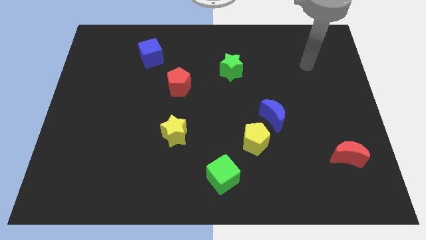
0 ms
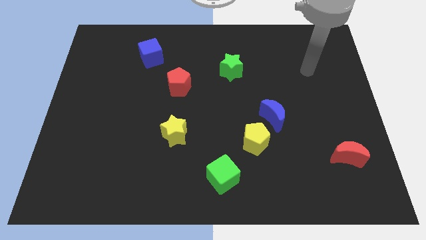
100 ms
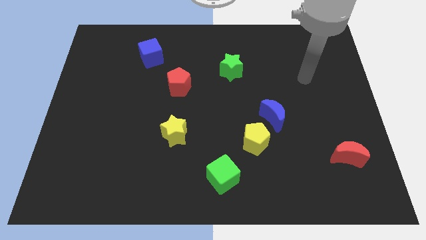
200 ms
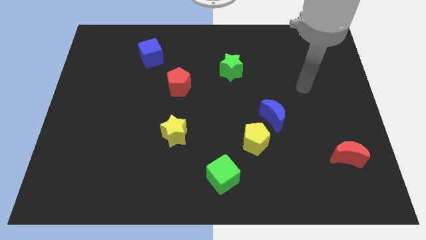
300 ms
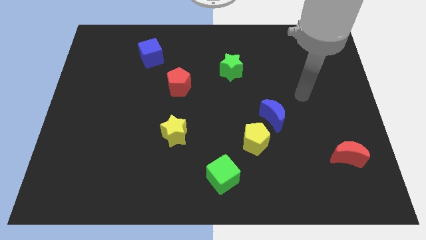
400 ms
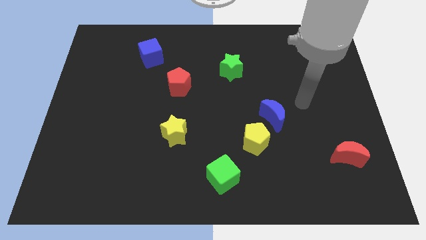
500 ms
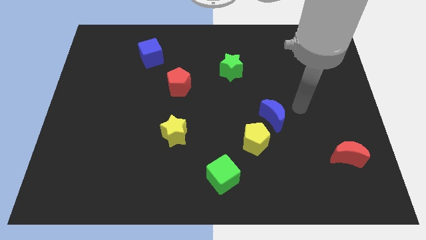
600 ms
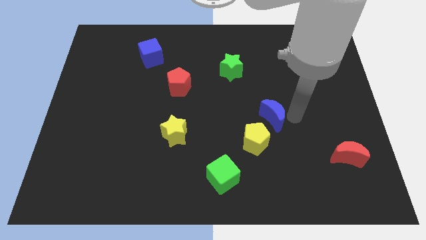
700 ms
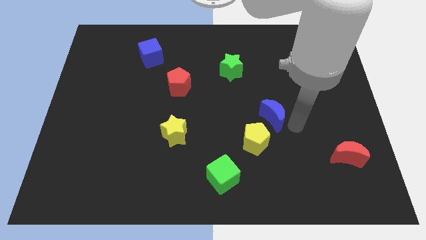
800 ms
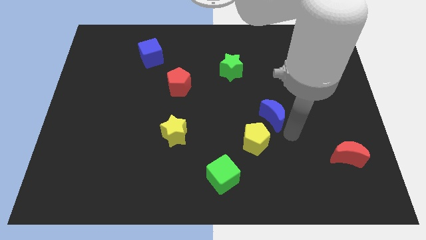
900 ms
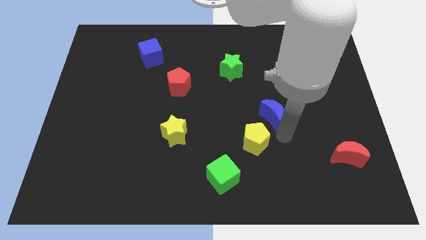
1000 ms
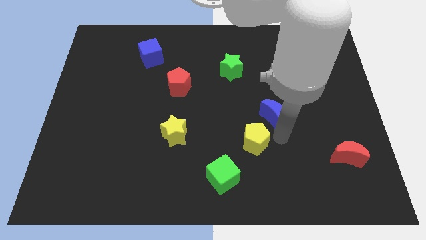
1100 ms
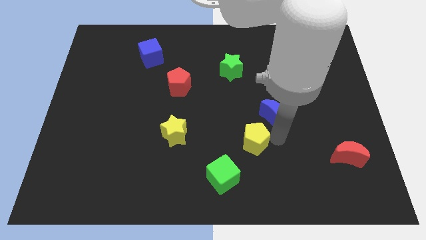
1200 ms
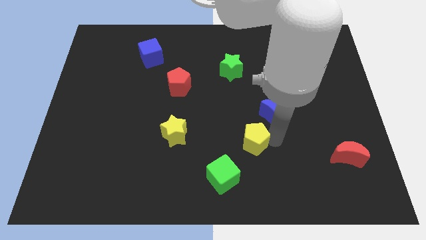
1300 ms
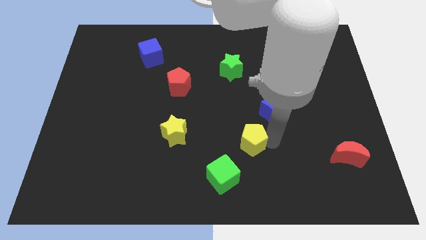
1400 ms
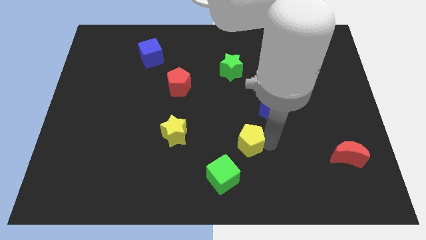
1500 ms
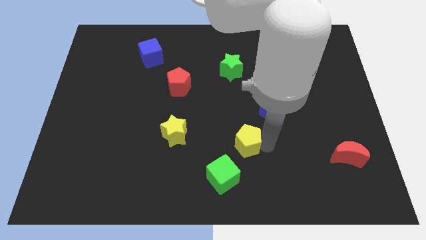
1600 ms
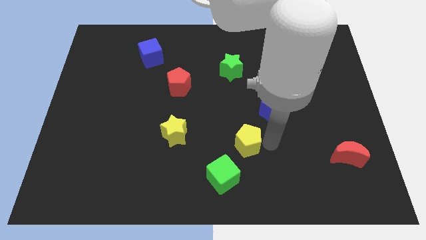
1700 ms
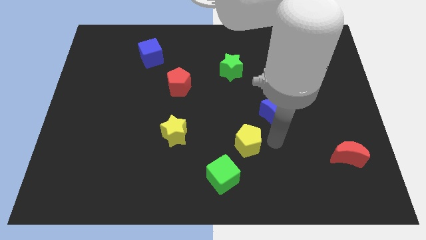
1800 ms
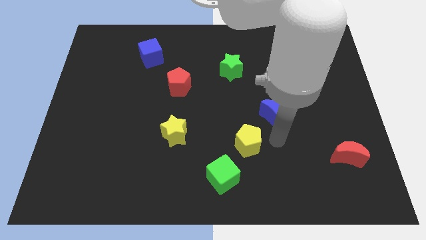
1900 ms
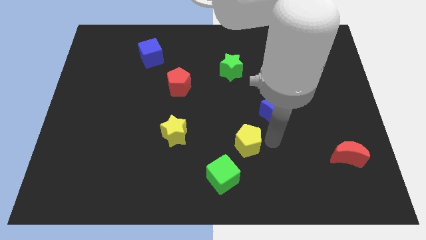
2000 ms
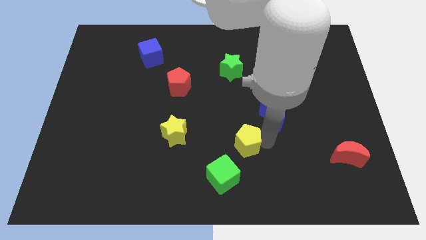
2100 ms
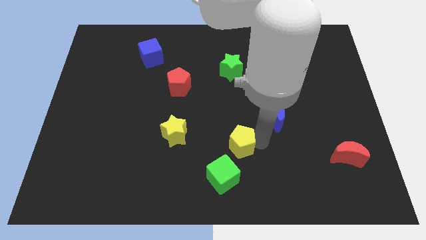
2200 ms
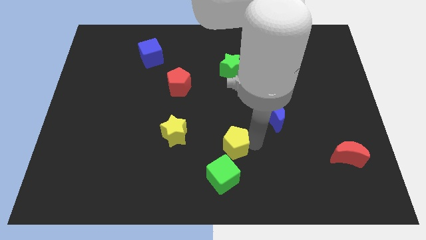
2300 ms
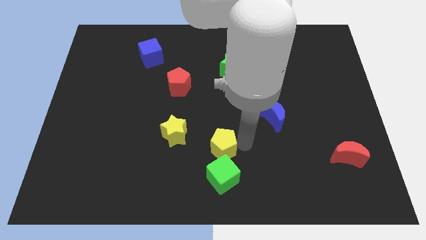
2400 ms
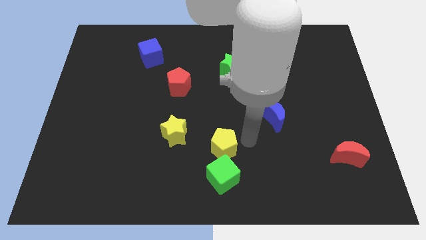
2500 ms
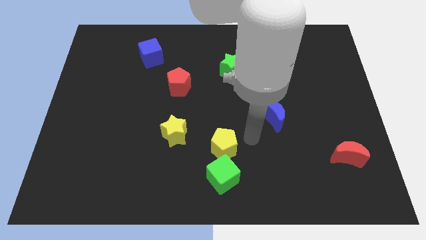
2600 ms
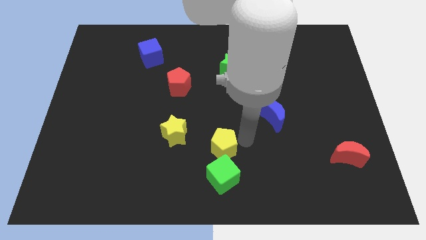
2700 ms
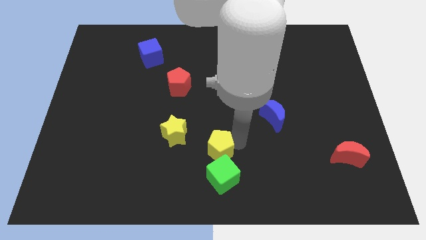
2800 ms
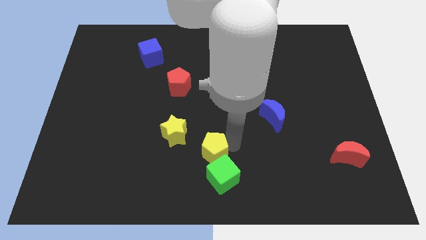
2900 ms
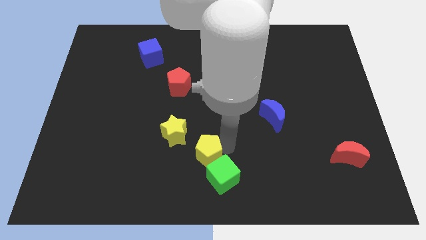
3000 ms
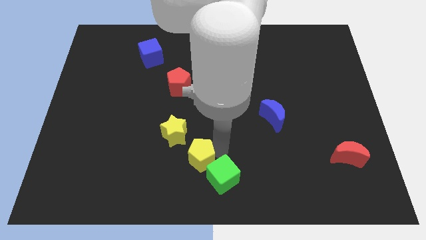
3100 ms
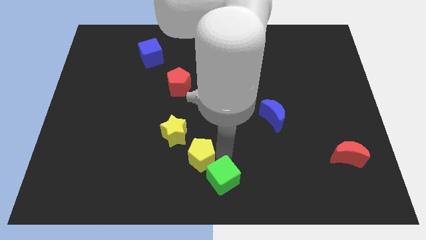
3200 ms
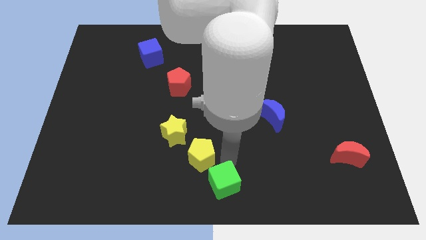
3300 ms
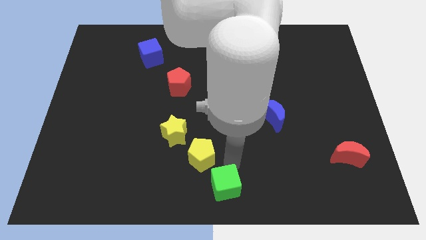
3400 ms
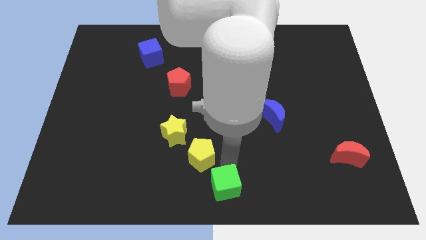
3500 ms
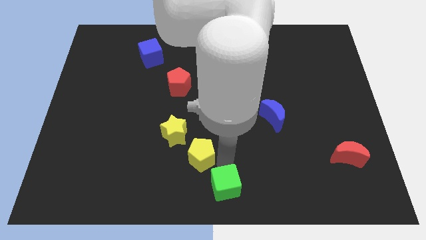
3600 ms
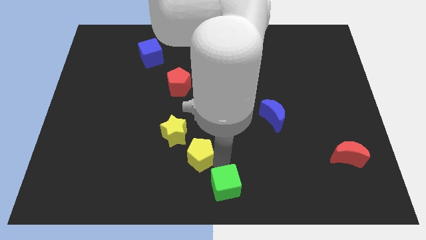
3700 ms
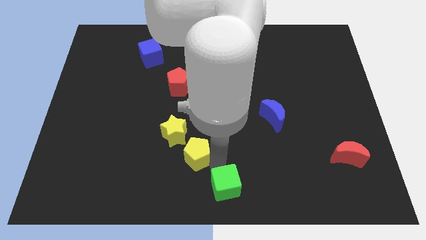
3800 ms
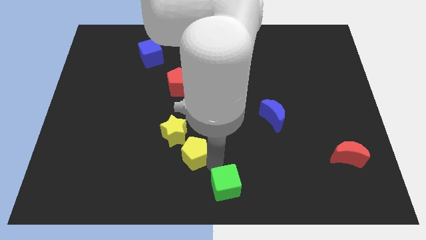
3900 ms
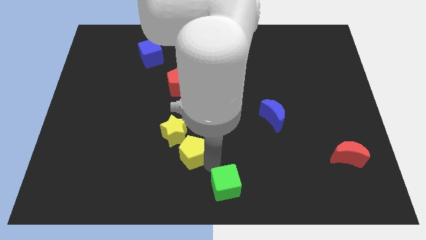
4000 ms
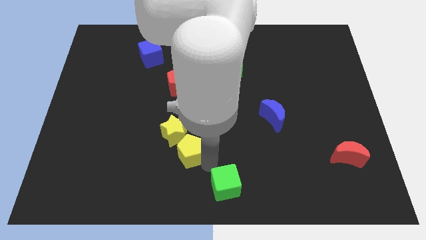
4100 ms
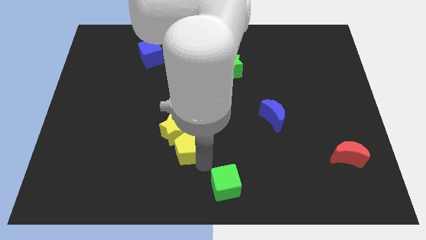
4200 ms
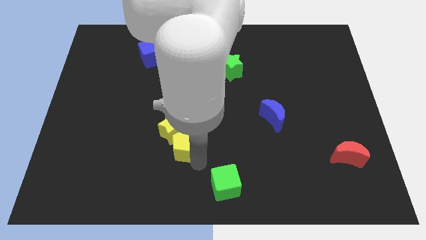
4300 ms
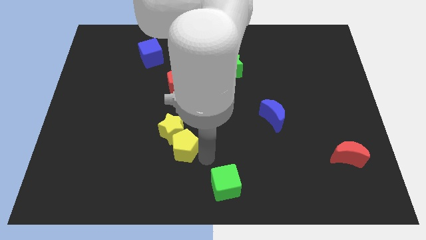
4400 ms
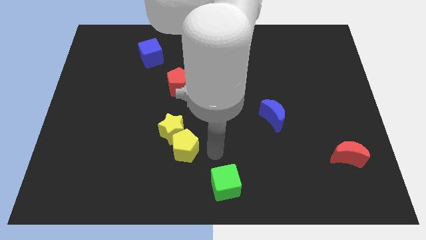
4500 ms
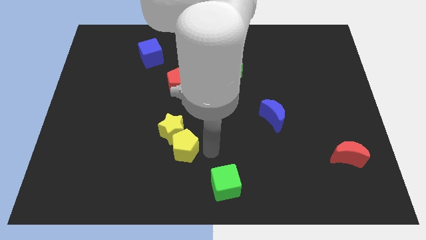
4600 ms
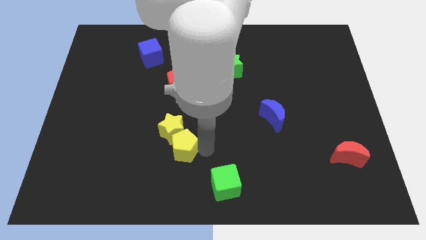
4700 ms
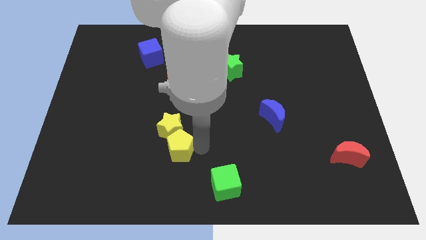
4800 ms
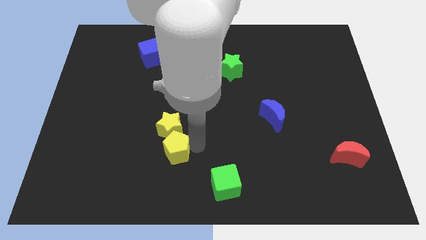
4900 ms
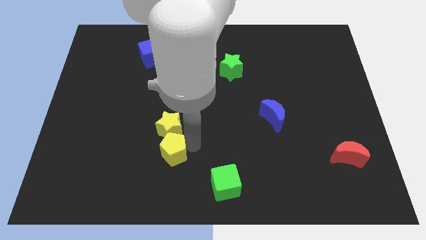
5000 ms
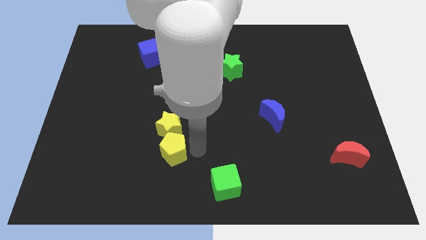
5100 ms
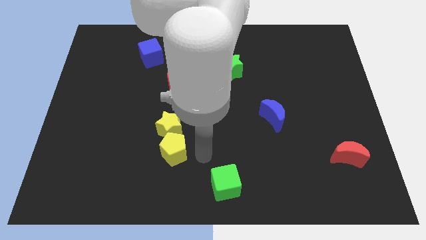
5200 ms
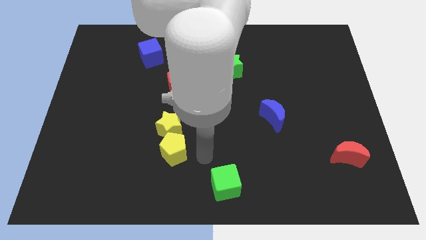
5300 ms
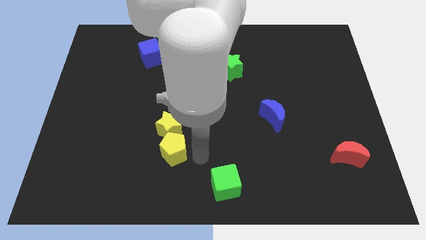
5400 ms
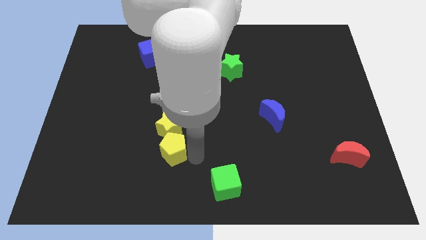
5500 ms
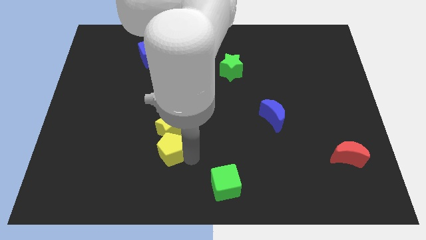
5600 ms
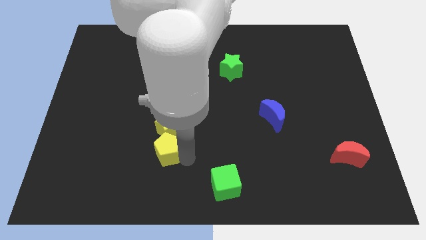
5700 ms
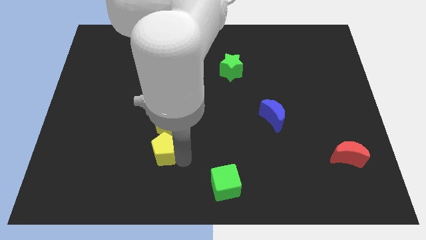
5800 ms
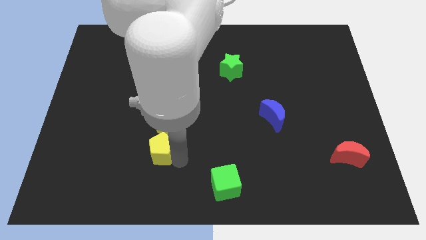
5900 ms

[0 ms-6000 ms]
slide the yellow pentagon left

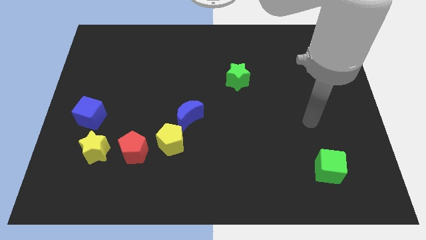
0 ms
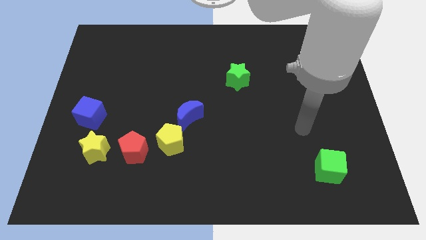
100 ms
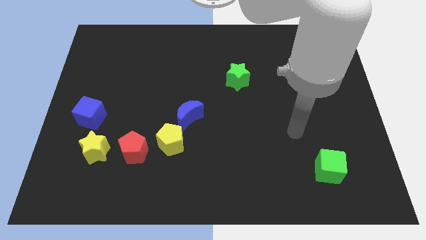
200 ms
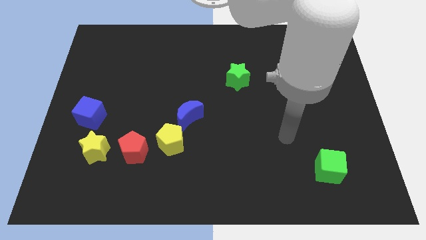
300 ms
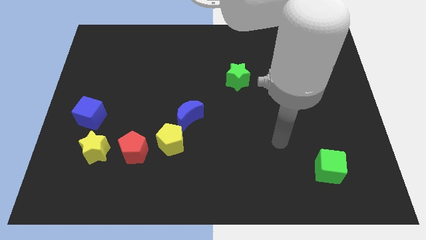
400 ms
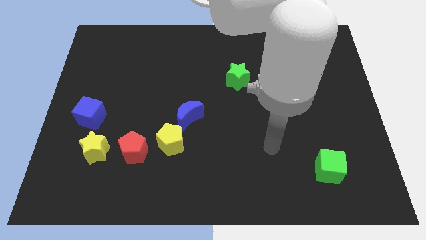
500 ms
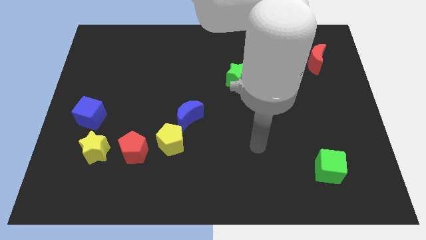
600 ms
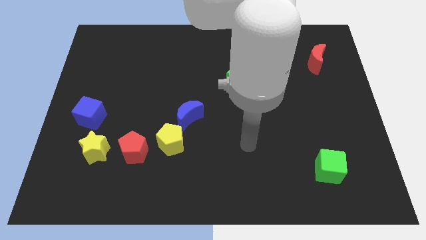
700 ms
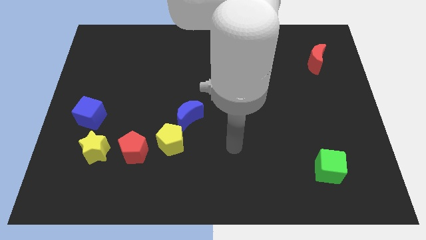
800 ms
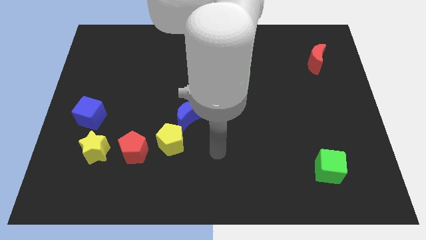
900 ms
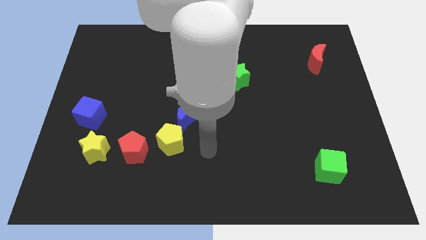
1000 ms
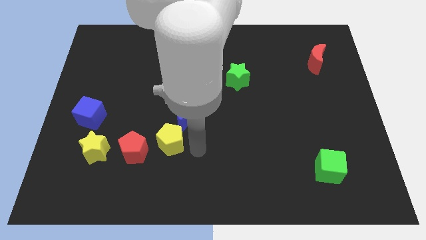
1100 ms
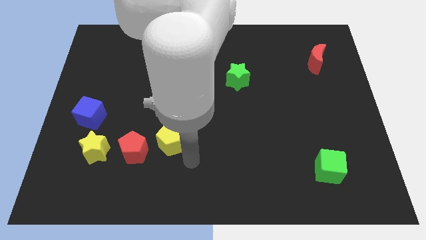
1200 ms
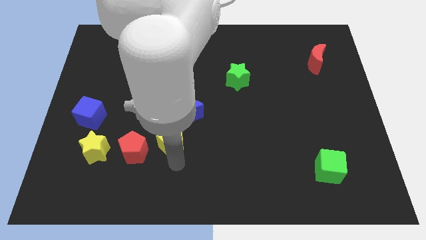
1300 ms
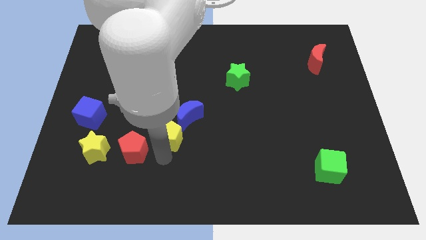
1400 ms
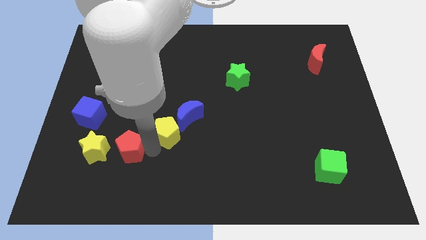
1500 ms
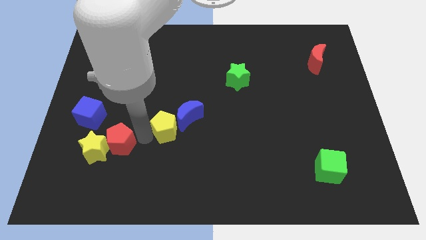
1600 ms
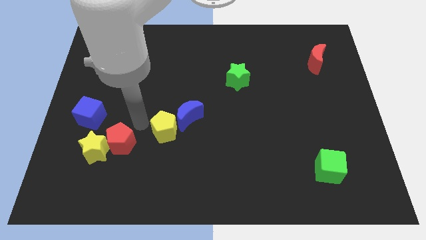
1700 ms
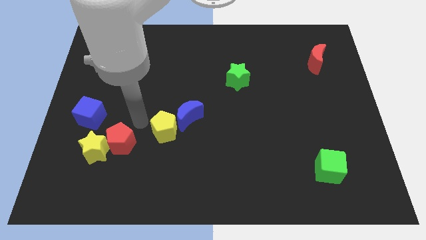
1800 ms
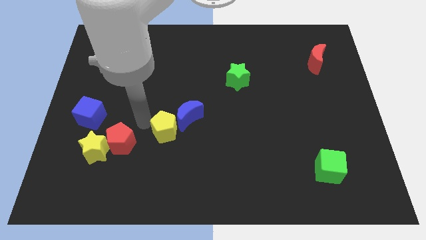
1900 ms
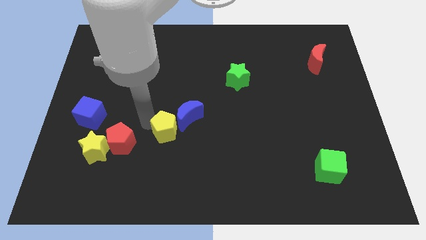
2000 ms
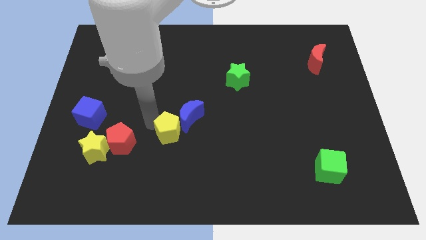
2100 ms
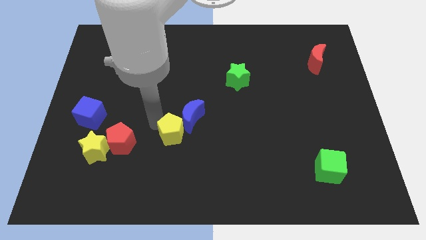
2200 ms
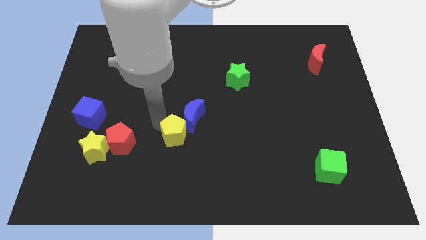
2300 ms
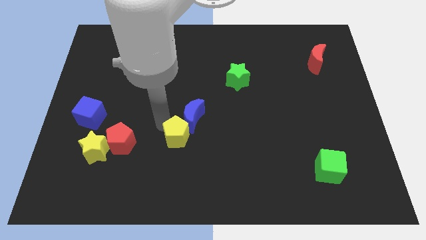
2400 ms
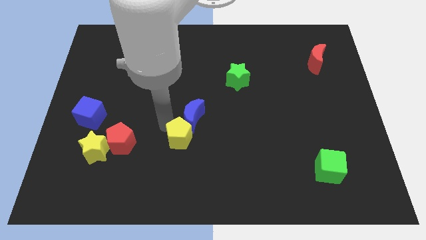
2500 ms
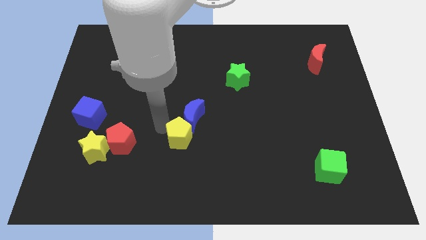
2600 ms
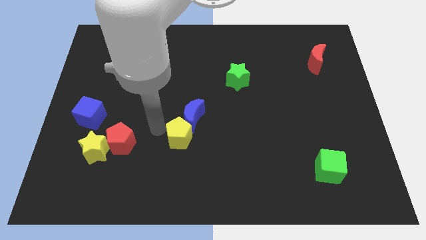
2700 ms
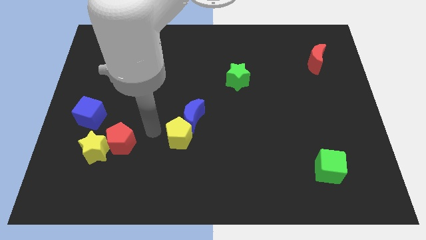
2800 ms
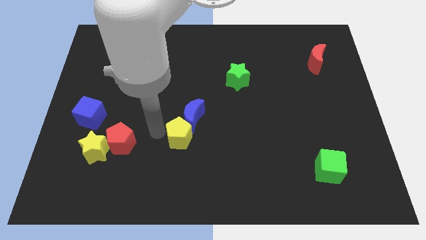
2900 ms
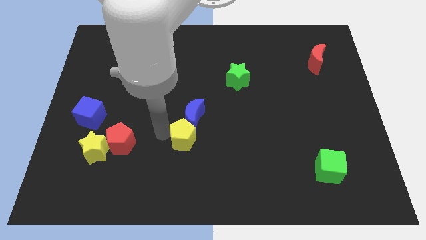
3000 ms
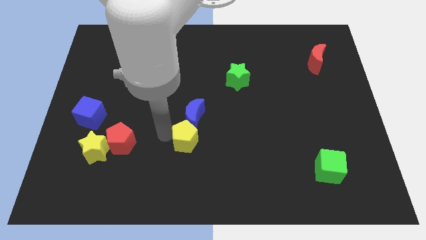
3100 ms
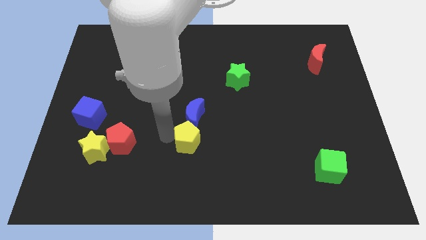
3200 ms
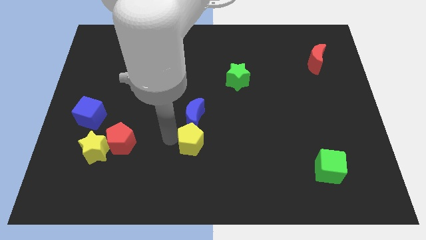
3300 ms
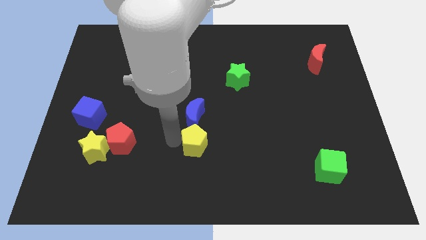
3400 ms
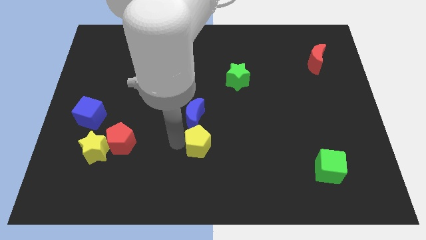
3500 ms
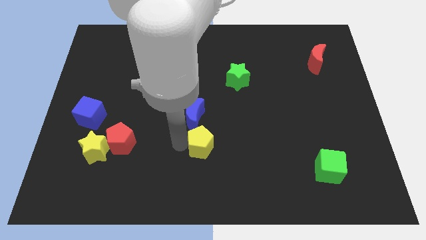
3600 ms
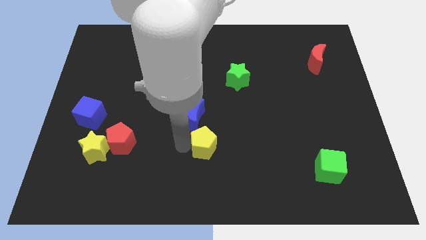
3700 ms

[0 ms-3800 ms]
push the yellow pentagon slightly right
